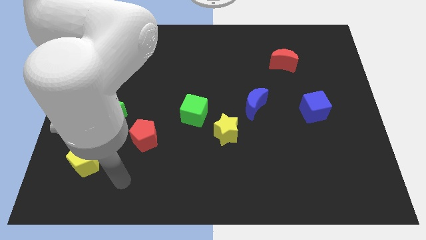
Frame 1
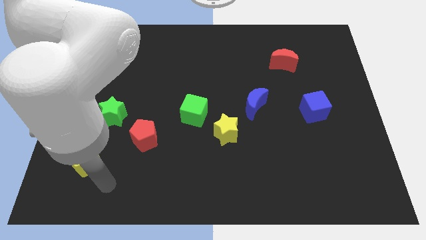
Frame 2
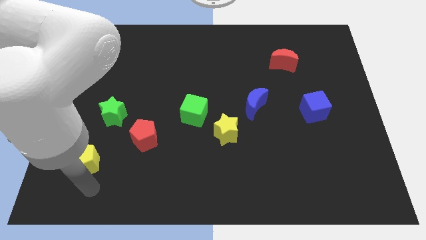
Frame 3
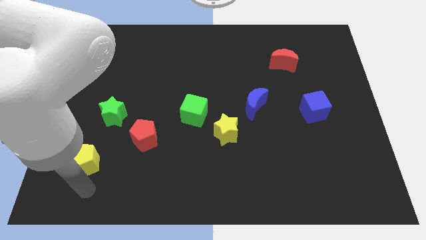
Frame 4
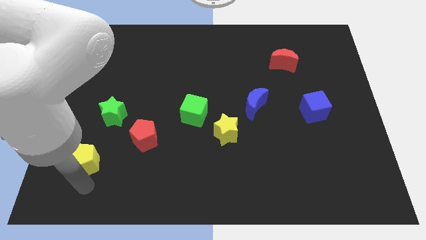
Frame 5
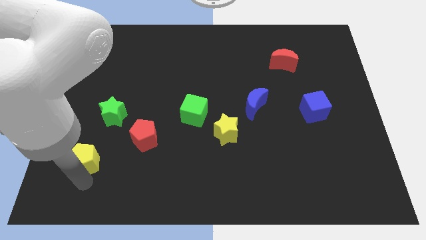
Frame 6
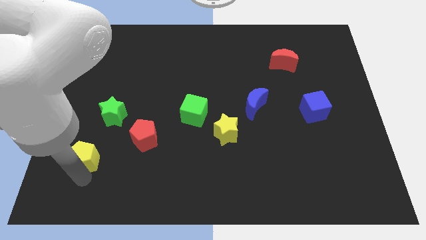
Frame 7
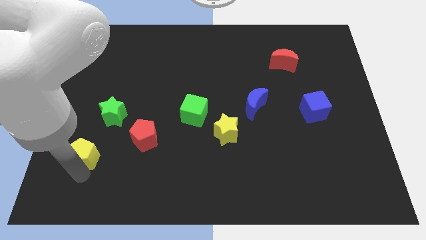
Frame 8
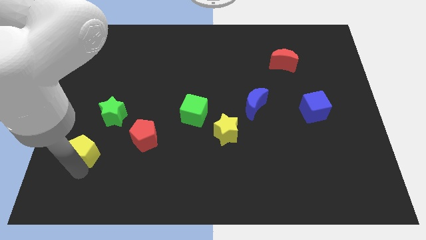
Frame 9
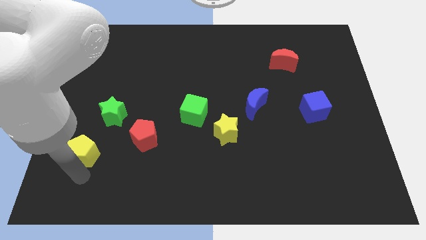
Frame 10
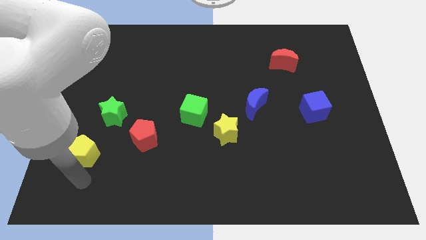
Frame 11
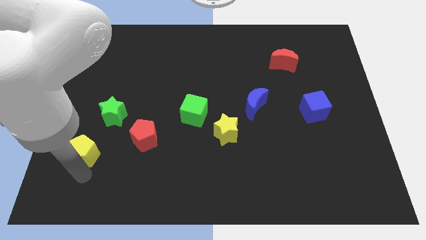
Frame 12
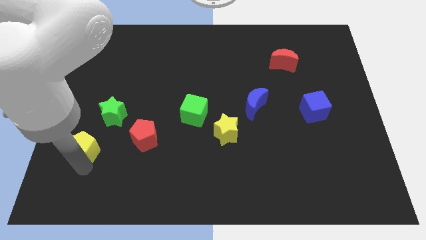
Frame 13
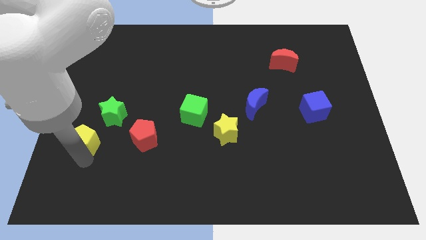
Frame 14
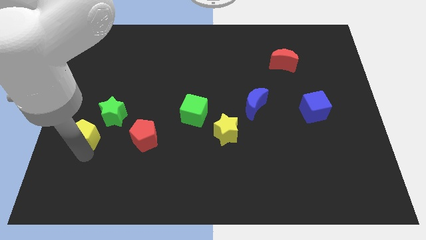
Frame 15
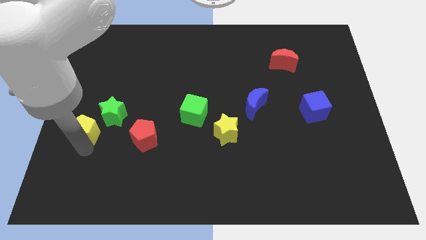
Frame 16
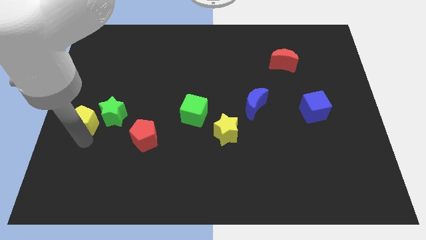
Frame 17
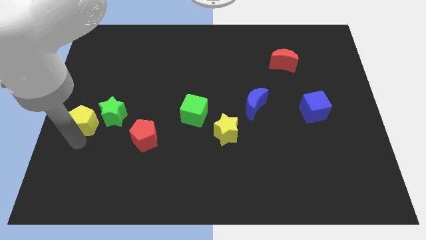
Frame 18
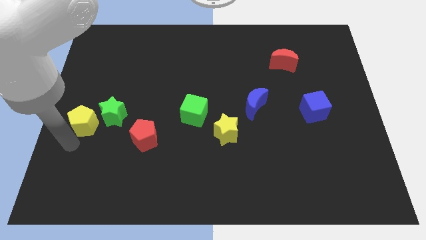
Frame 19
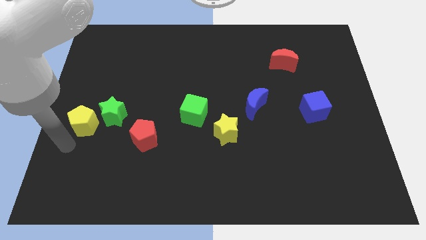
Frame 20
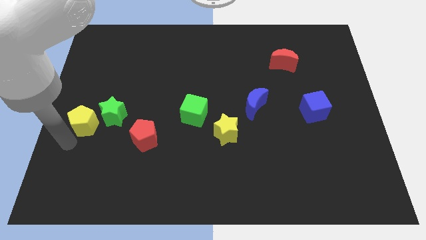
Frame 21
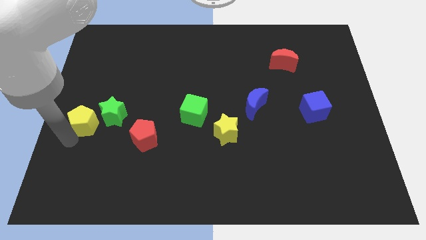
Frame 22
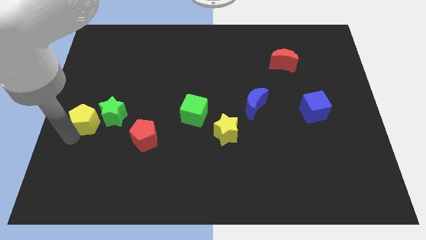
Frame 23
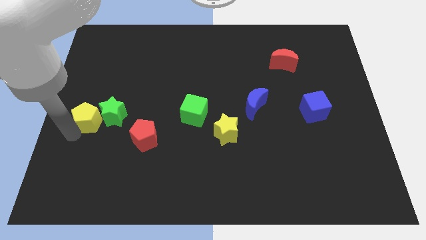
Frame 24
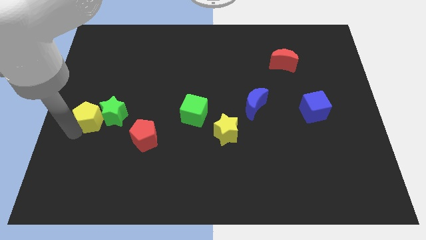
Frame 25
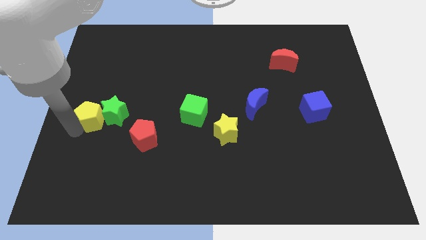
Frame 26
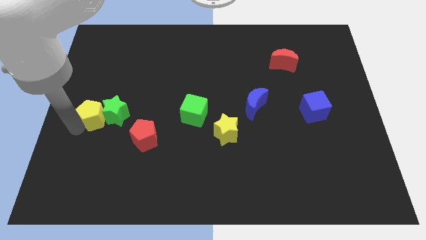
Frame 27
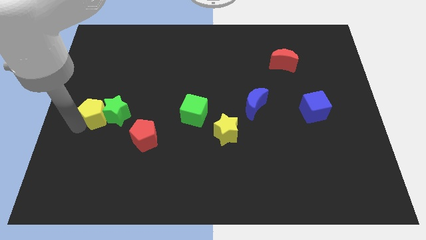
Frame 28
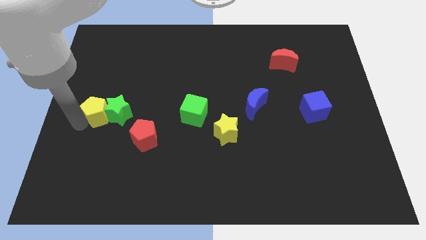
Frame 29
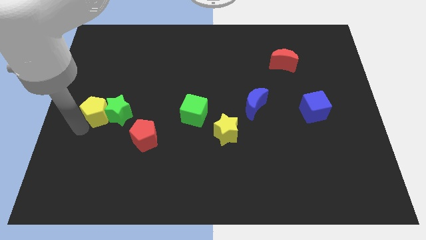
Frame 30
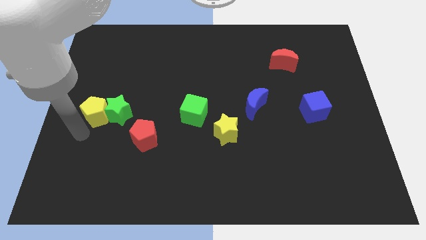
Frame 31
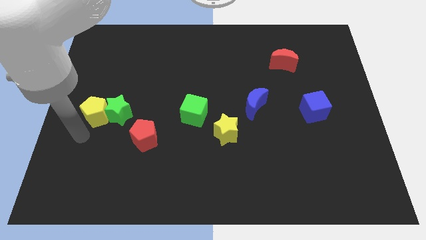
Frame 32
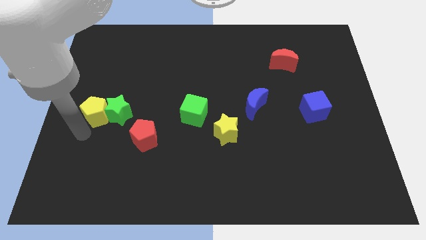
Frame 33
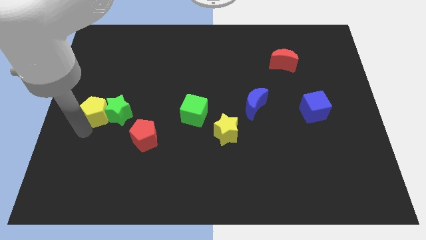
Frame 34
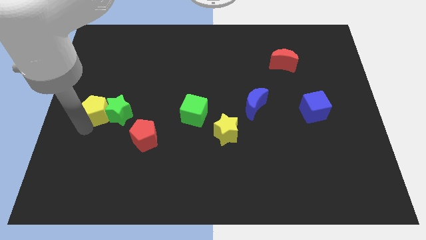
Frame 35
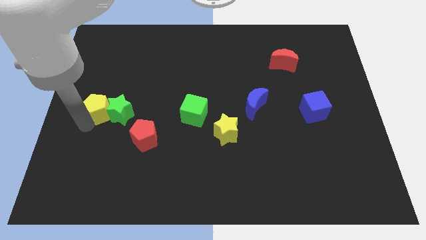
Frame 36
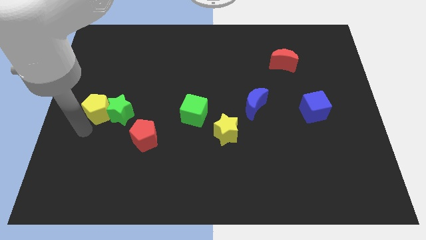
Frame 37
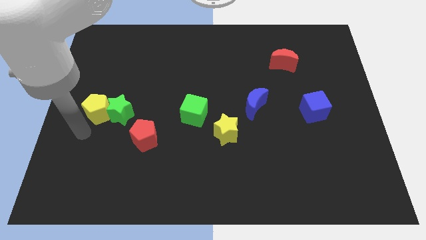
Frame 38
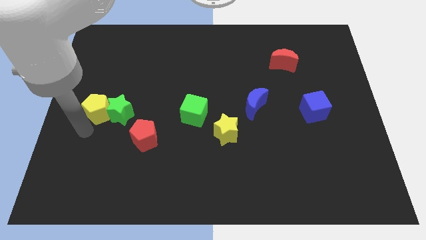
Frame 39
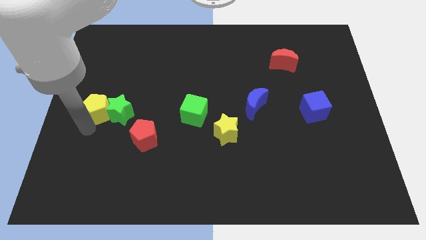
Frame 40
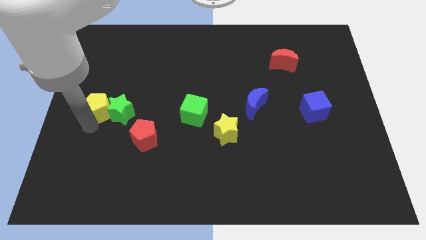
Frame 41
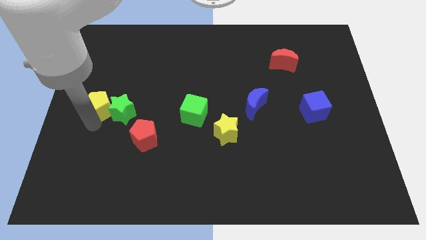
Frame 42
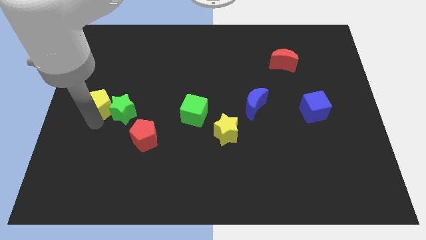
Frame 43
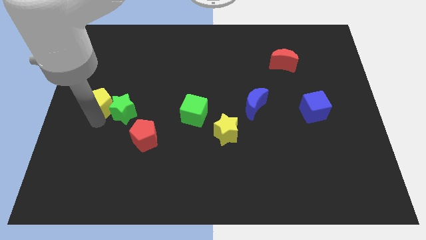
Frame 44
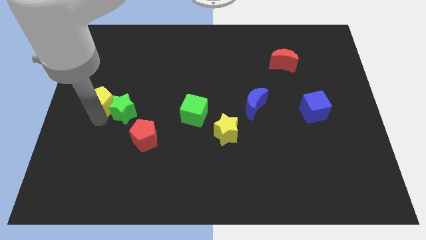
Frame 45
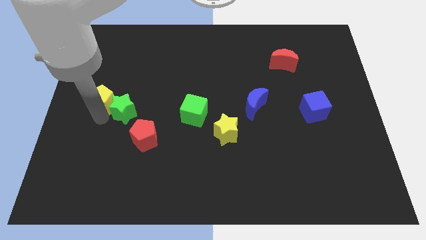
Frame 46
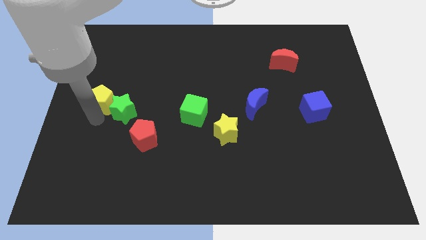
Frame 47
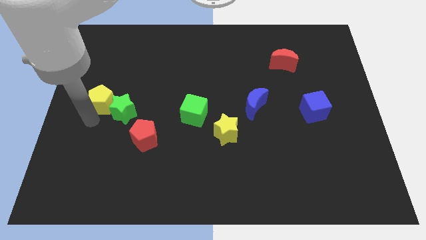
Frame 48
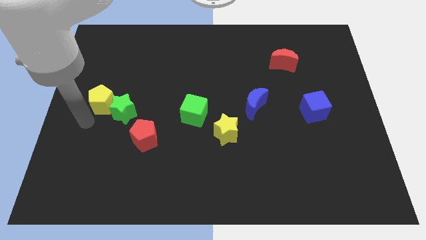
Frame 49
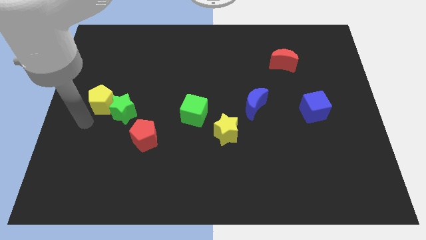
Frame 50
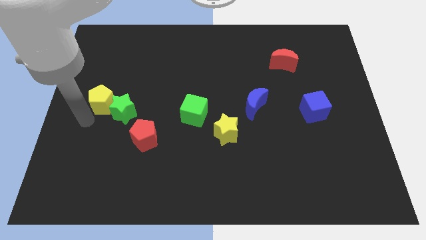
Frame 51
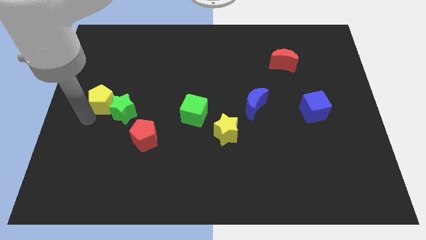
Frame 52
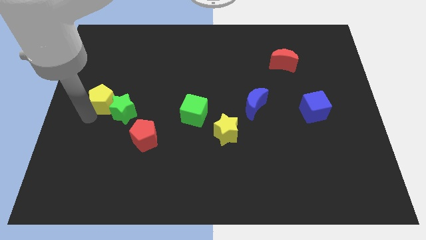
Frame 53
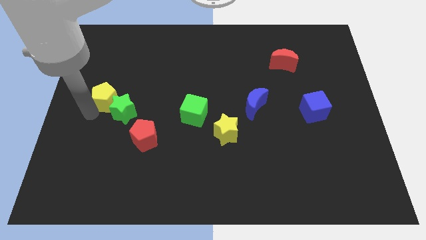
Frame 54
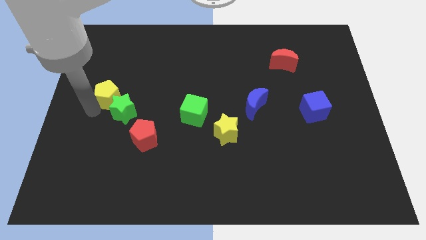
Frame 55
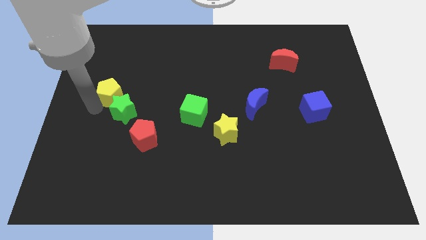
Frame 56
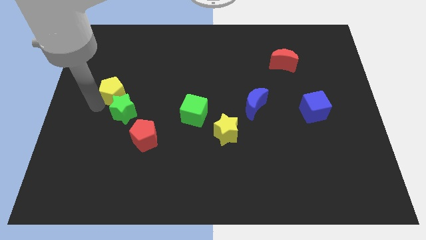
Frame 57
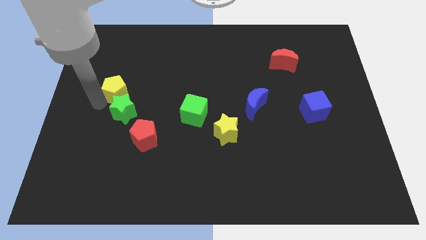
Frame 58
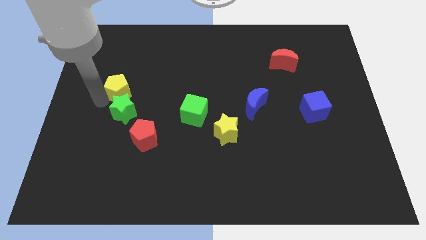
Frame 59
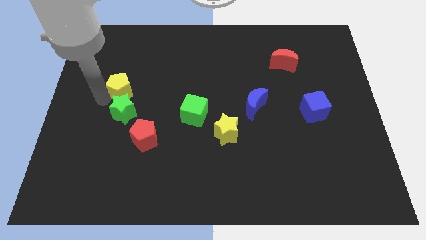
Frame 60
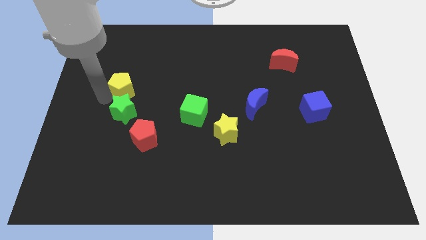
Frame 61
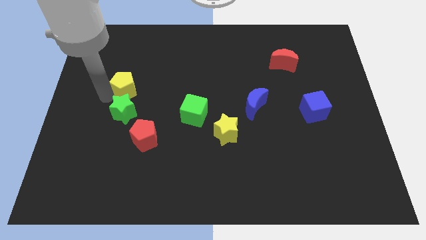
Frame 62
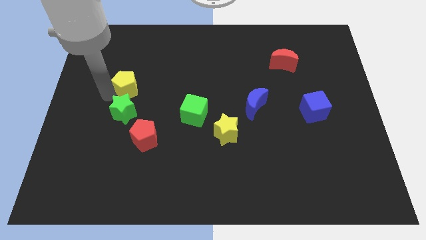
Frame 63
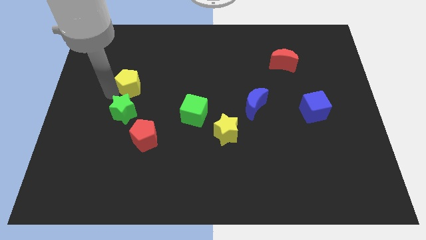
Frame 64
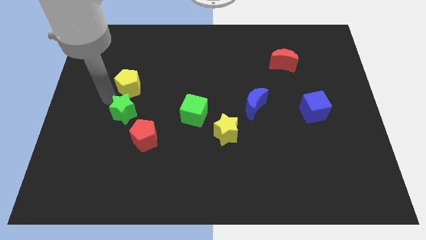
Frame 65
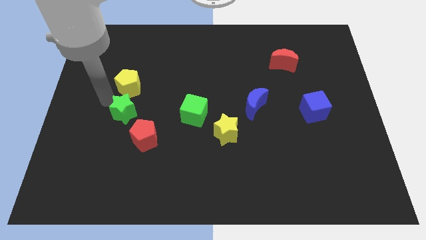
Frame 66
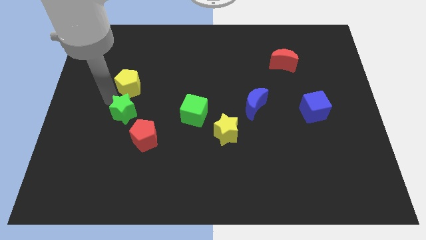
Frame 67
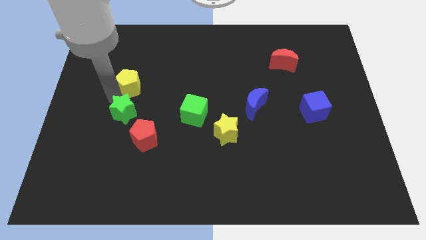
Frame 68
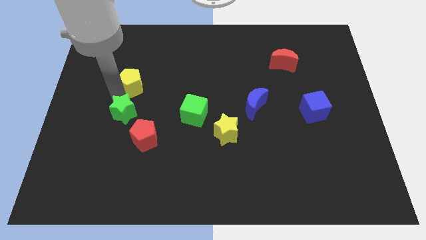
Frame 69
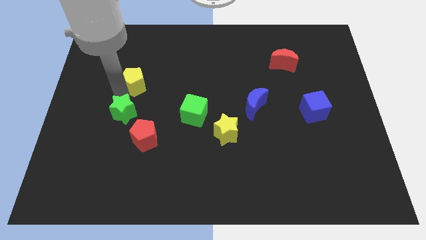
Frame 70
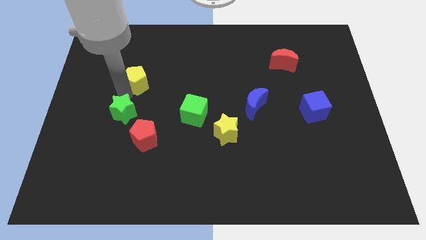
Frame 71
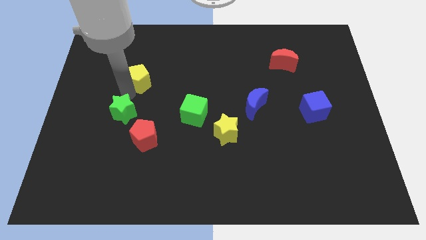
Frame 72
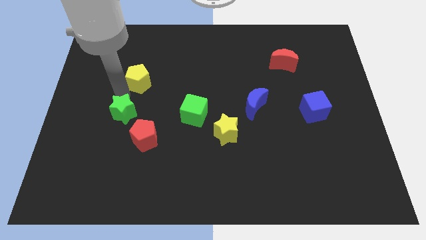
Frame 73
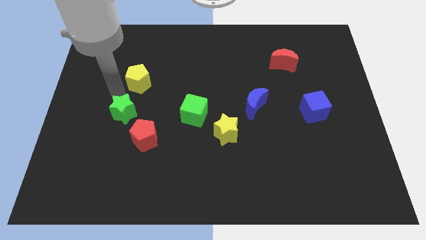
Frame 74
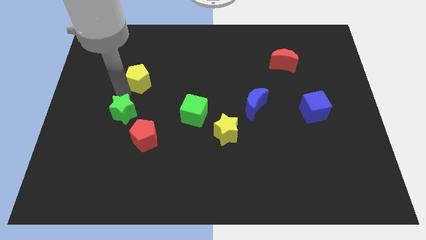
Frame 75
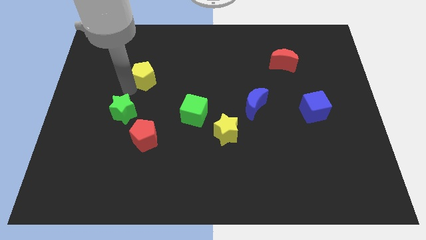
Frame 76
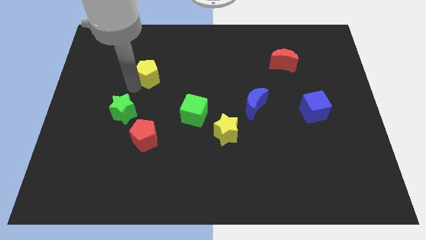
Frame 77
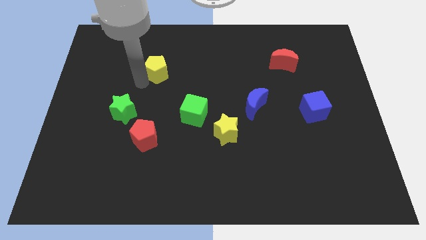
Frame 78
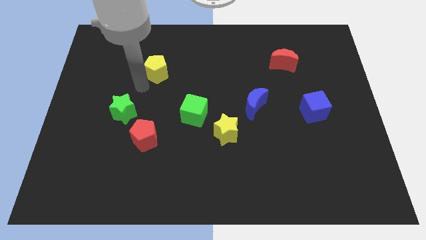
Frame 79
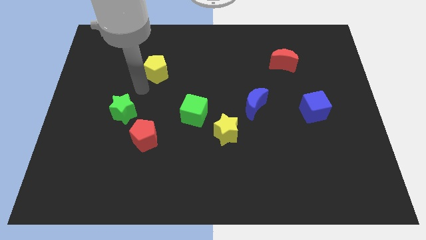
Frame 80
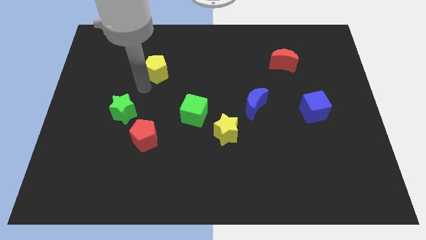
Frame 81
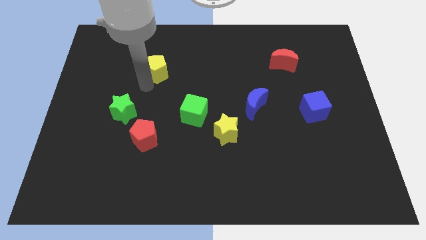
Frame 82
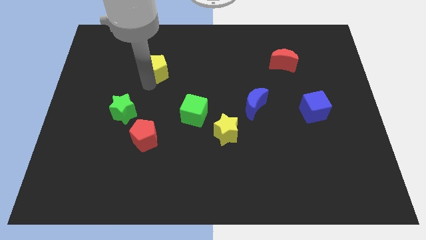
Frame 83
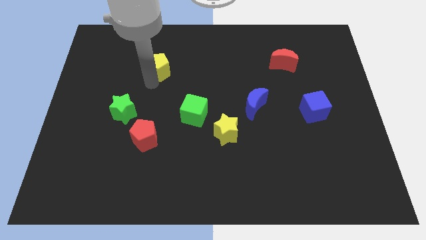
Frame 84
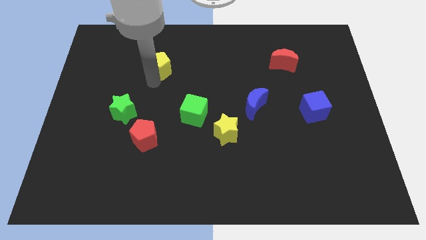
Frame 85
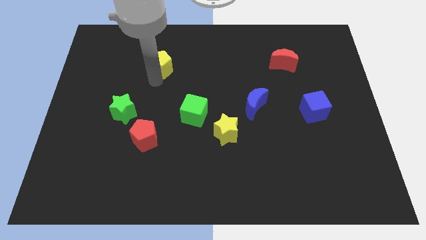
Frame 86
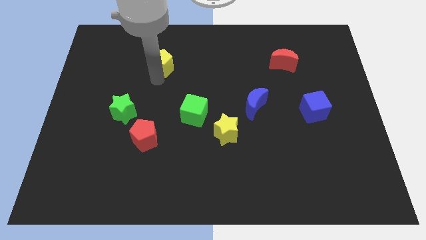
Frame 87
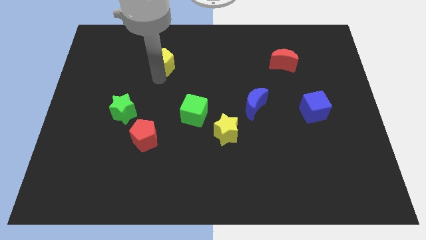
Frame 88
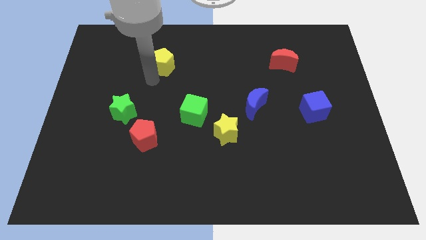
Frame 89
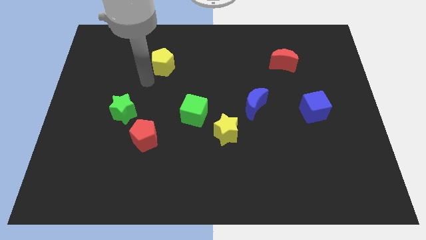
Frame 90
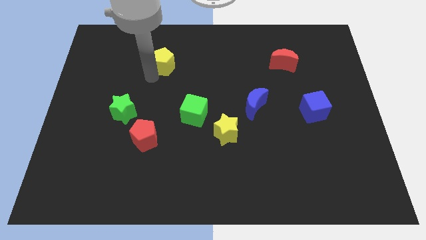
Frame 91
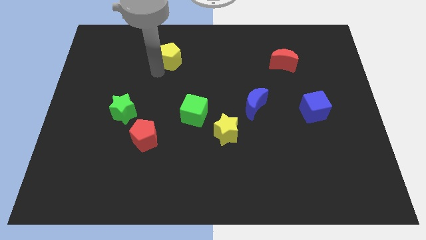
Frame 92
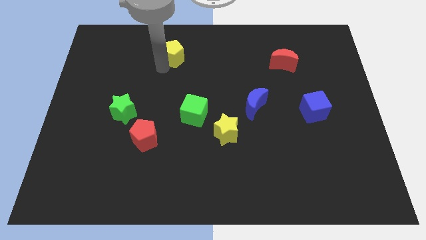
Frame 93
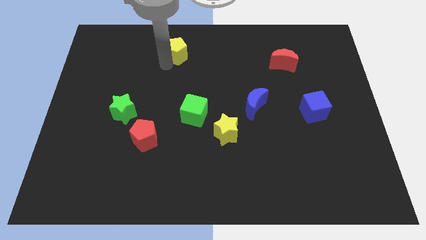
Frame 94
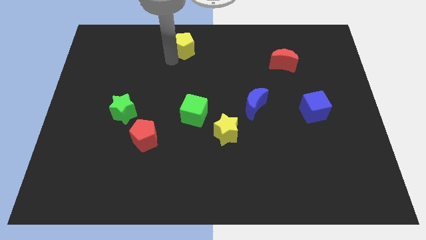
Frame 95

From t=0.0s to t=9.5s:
push the yellow pentagon to the top side
